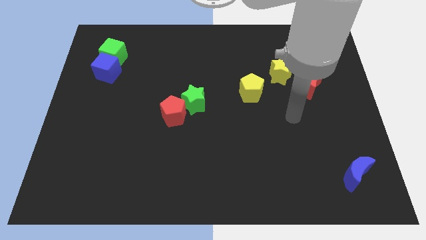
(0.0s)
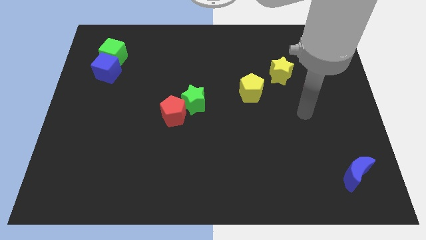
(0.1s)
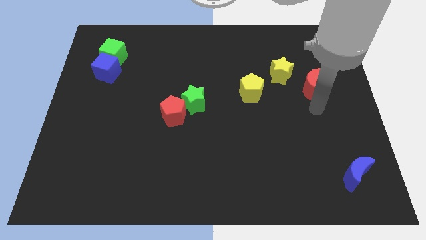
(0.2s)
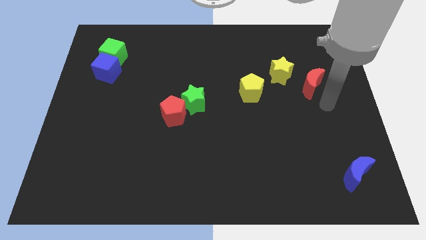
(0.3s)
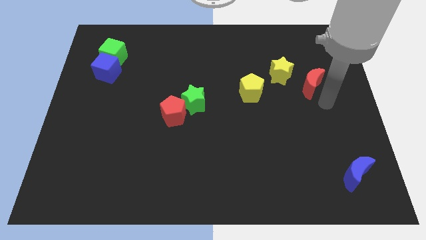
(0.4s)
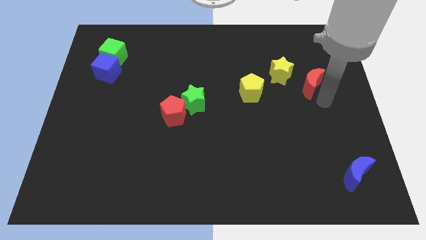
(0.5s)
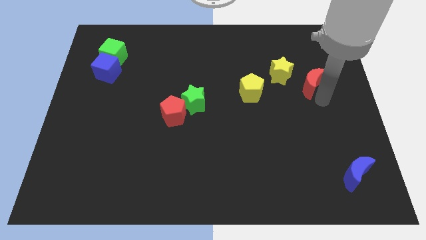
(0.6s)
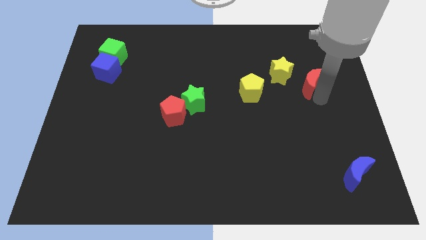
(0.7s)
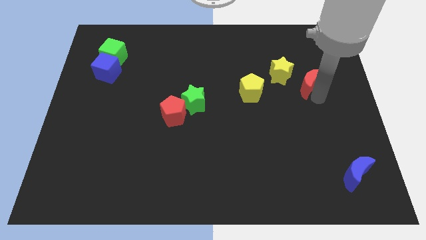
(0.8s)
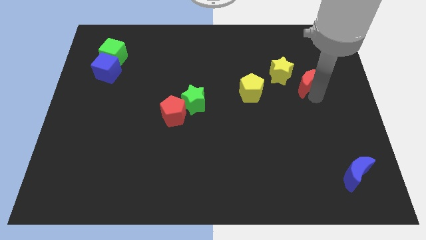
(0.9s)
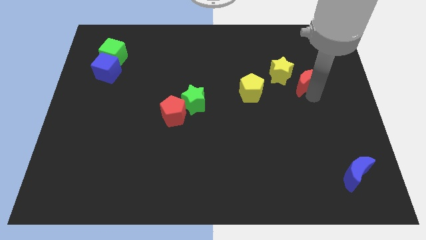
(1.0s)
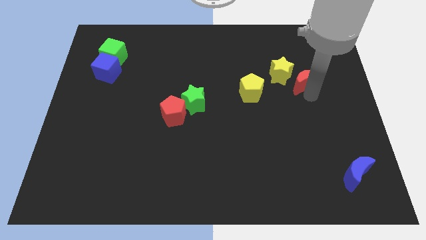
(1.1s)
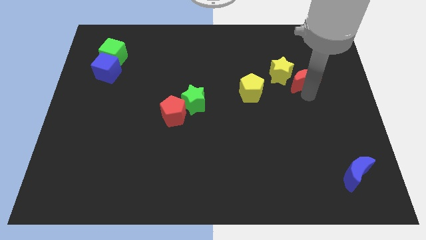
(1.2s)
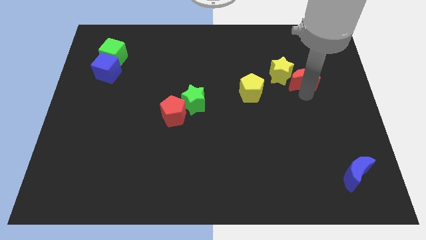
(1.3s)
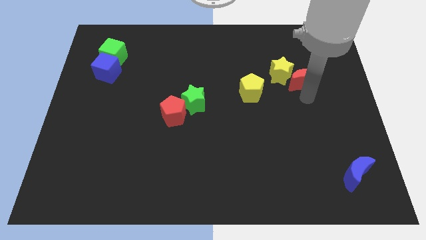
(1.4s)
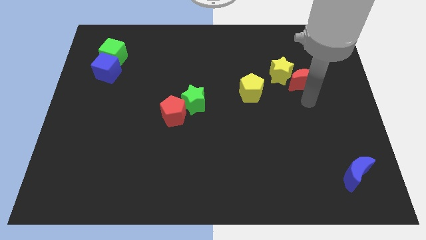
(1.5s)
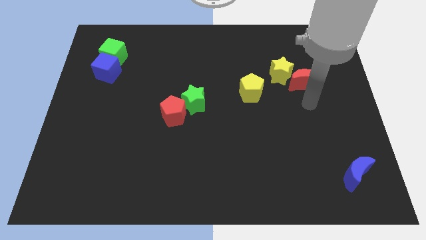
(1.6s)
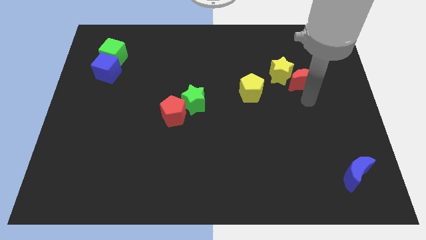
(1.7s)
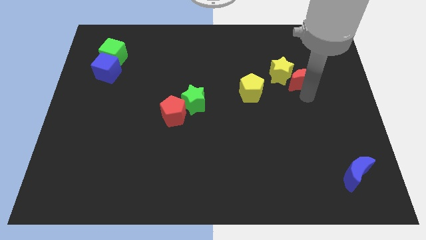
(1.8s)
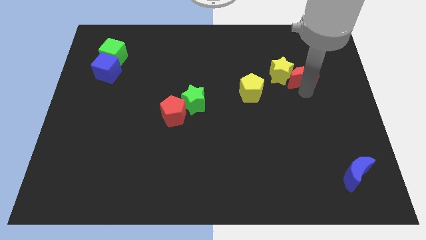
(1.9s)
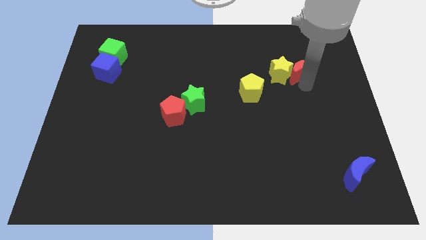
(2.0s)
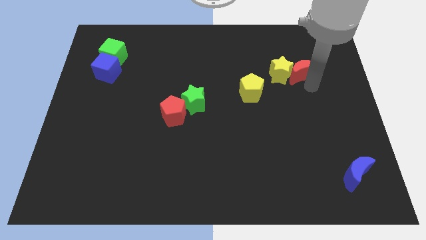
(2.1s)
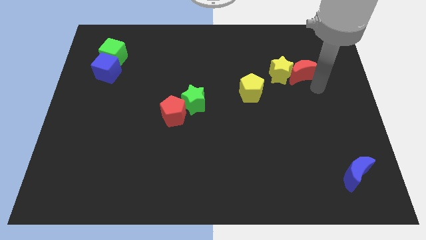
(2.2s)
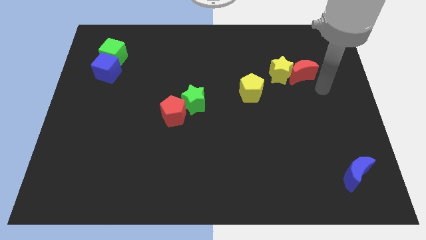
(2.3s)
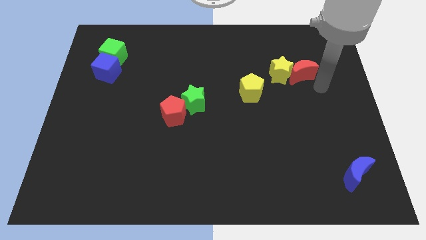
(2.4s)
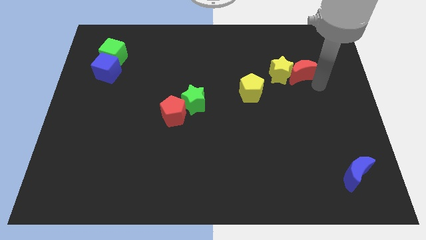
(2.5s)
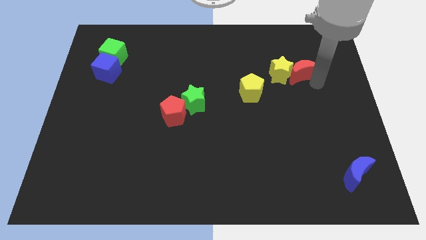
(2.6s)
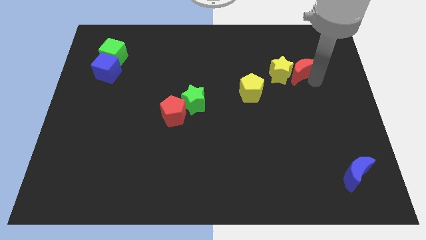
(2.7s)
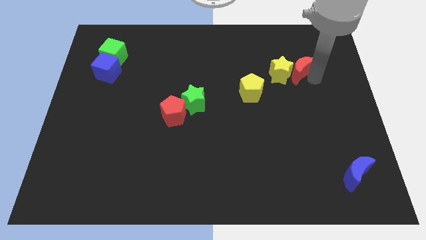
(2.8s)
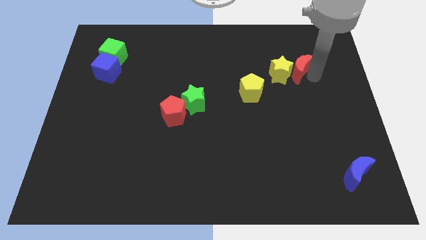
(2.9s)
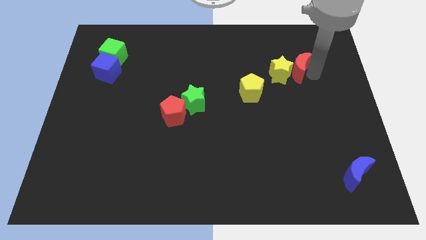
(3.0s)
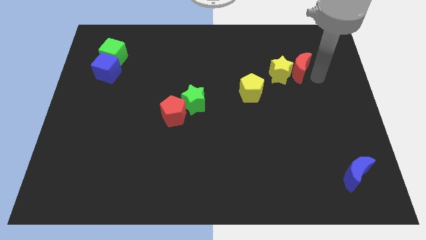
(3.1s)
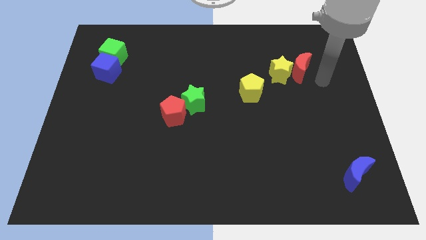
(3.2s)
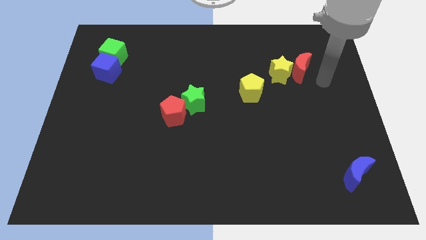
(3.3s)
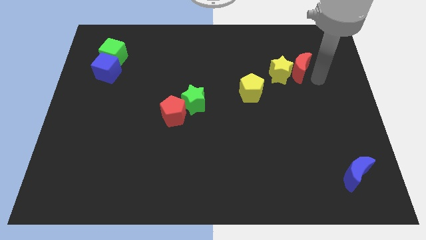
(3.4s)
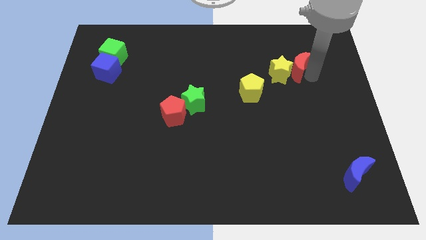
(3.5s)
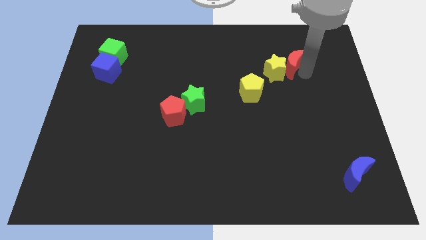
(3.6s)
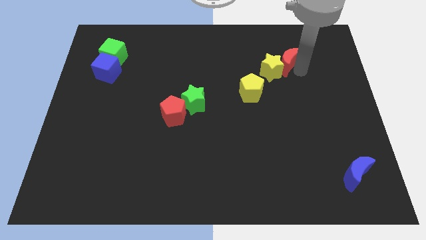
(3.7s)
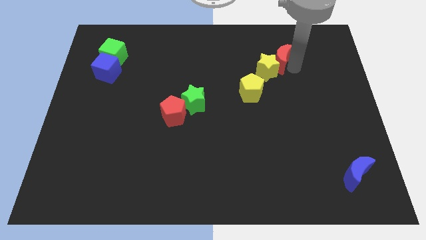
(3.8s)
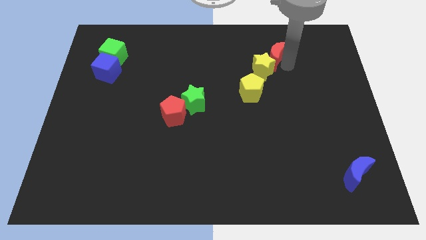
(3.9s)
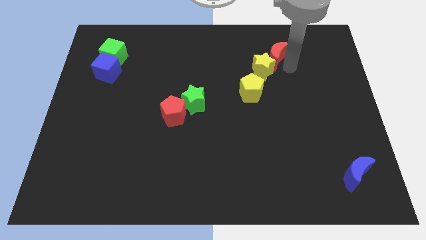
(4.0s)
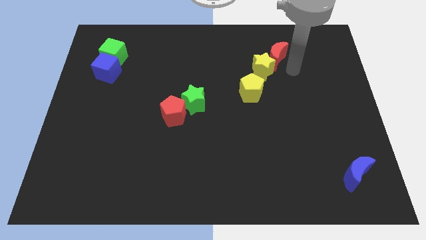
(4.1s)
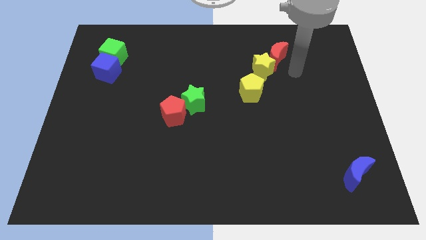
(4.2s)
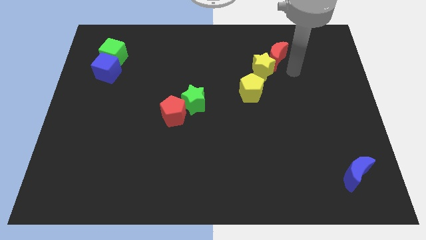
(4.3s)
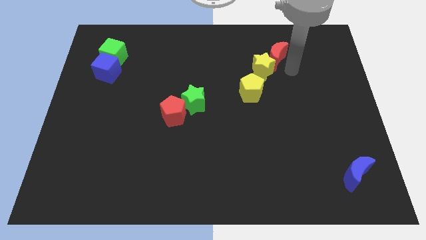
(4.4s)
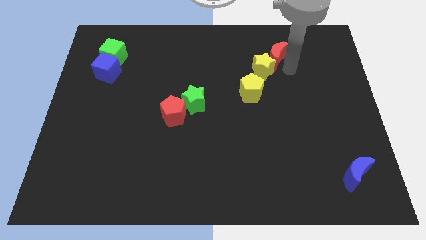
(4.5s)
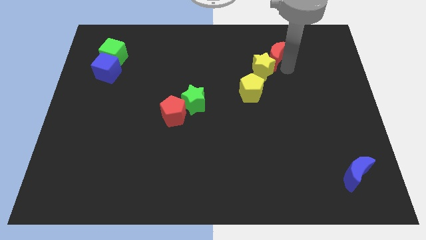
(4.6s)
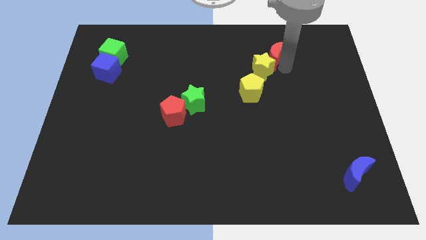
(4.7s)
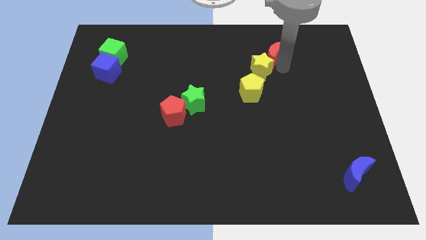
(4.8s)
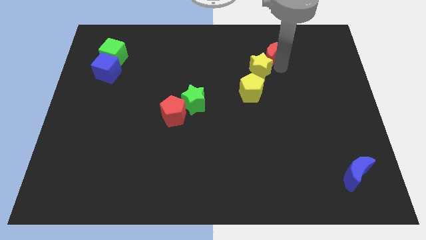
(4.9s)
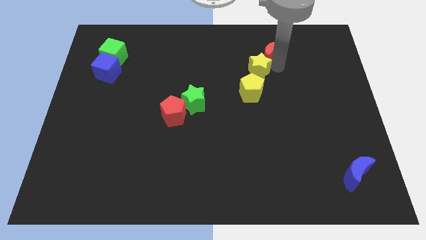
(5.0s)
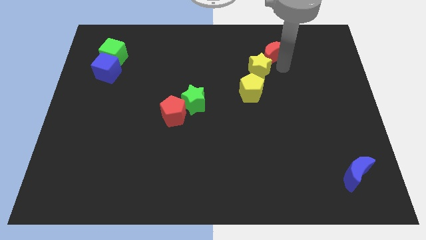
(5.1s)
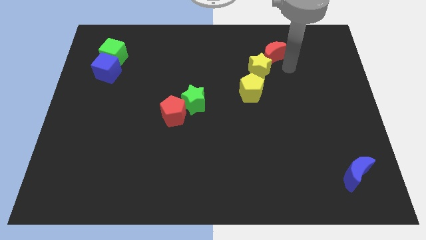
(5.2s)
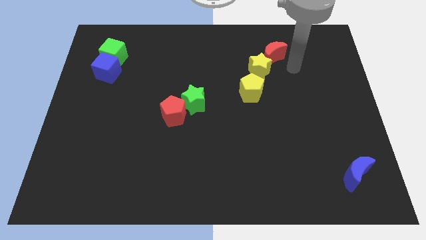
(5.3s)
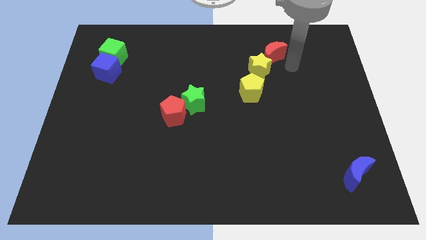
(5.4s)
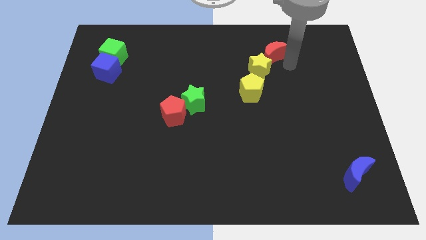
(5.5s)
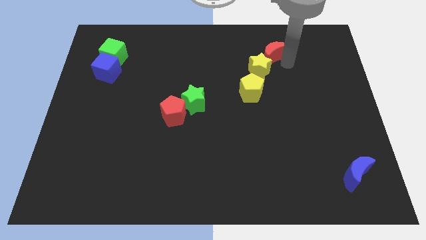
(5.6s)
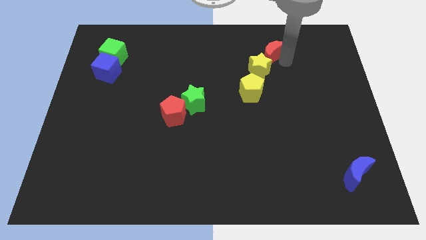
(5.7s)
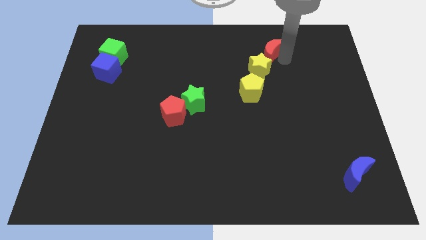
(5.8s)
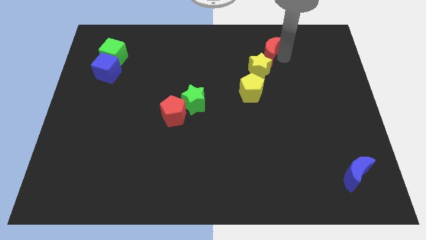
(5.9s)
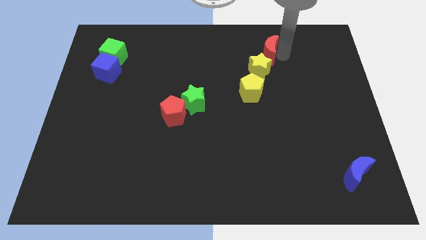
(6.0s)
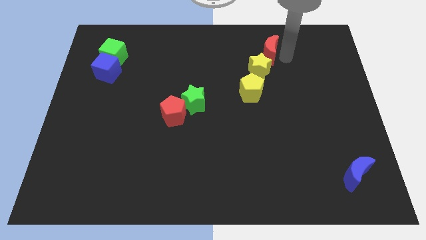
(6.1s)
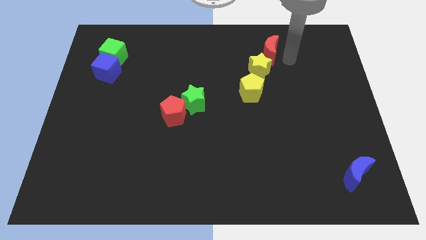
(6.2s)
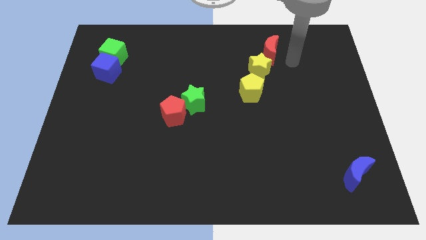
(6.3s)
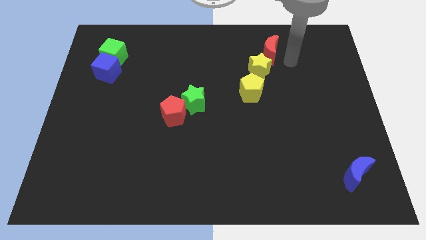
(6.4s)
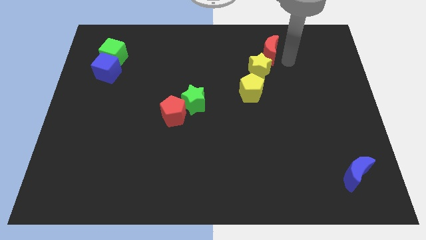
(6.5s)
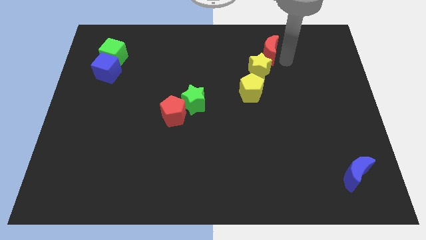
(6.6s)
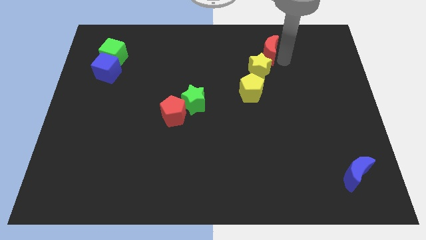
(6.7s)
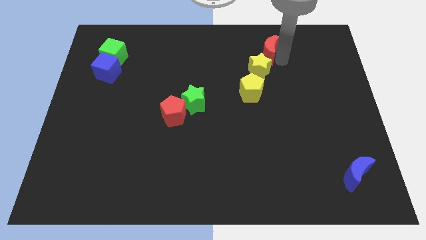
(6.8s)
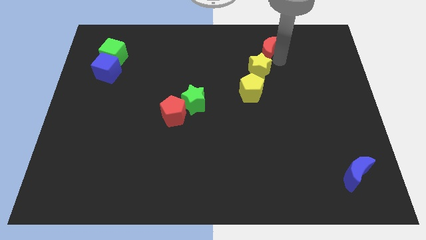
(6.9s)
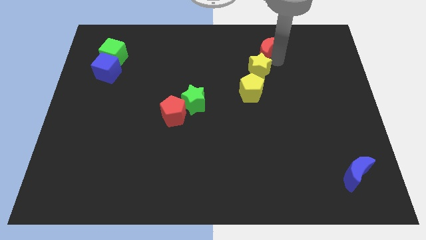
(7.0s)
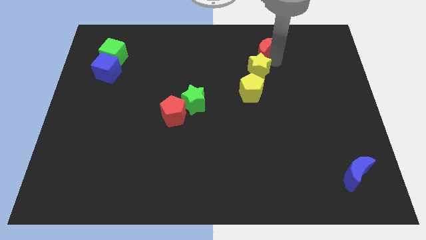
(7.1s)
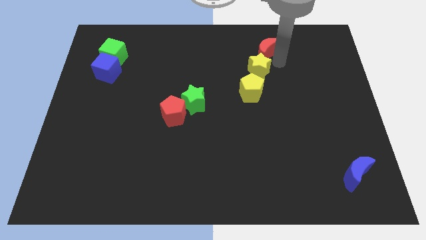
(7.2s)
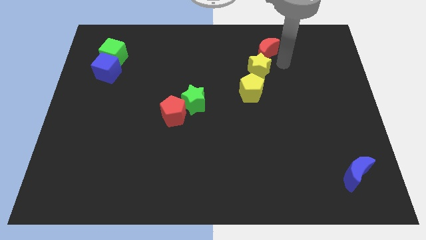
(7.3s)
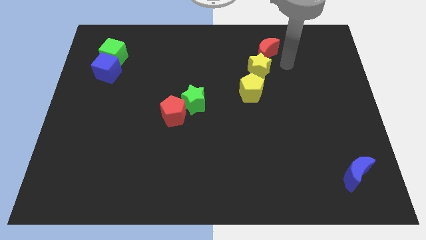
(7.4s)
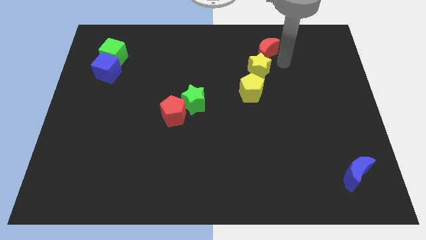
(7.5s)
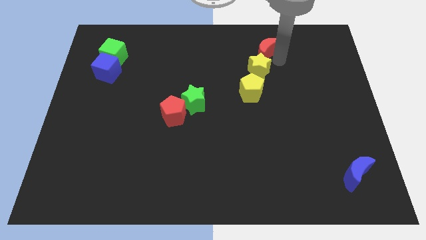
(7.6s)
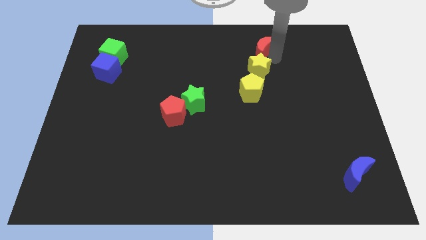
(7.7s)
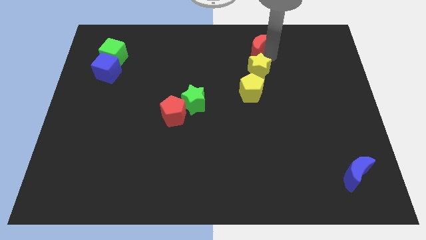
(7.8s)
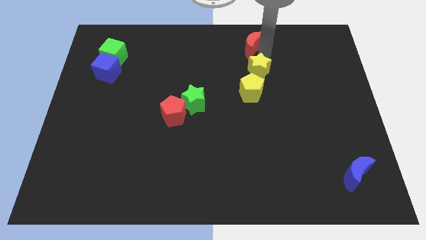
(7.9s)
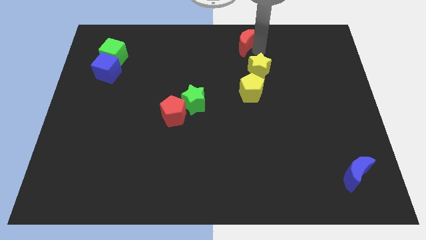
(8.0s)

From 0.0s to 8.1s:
move the red moon to the towards your base
